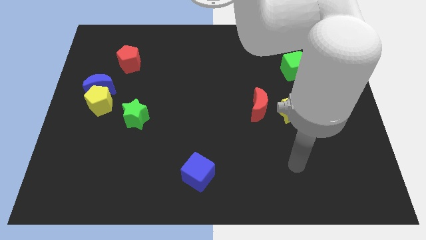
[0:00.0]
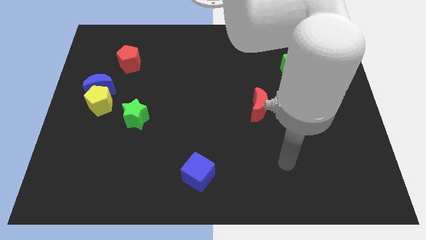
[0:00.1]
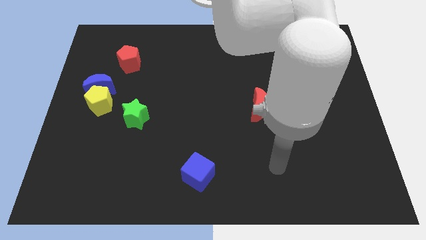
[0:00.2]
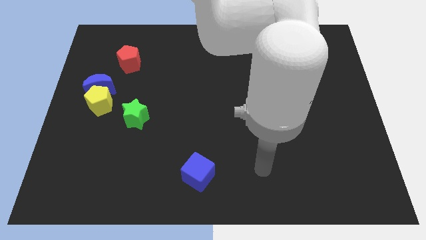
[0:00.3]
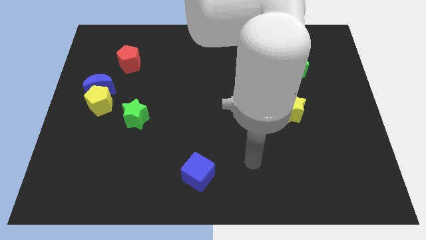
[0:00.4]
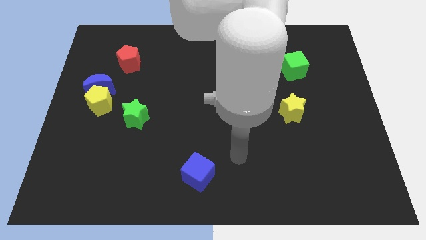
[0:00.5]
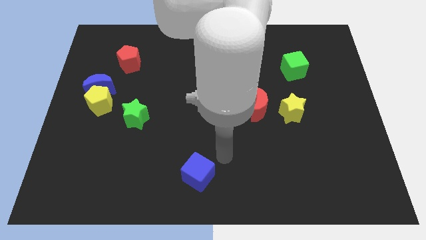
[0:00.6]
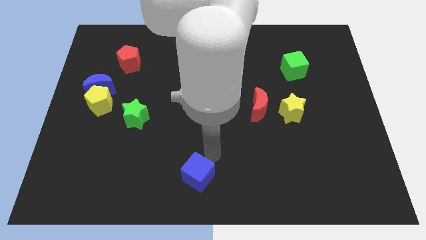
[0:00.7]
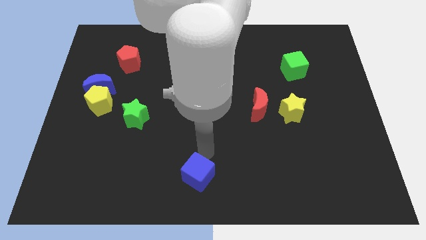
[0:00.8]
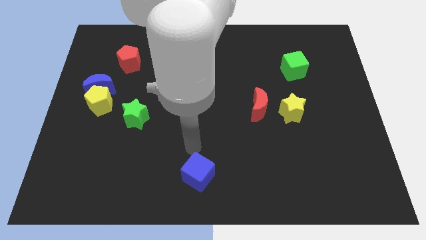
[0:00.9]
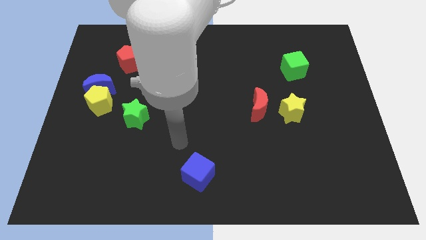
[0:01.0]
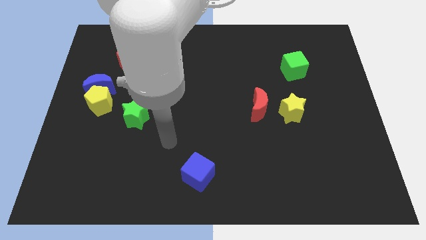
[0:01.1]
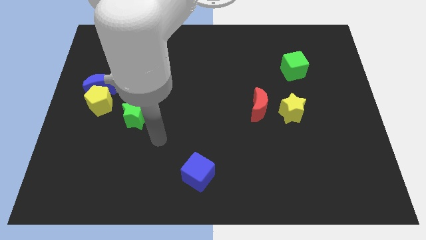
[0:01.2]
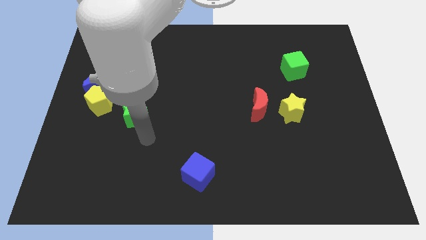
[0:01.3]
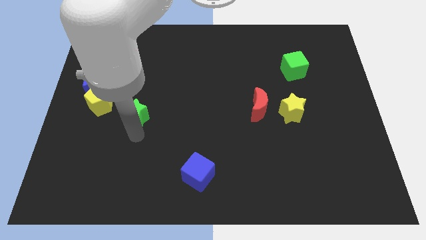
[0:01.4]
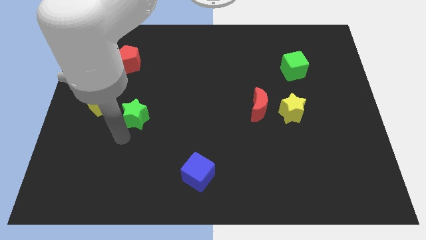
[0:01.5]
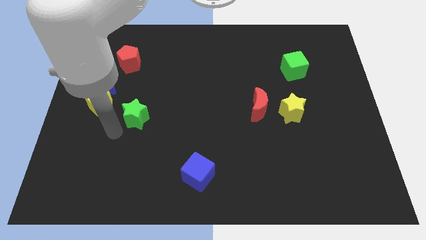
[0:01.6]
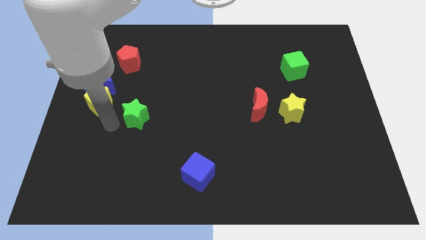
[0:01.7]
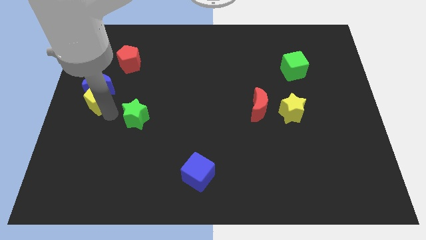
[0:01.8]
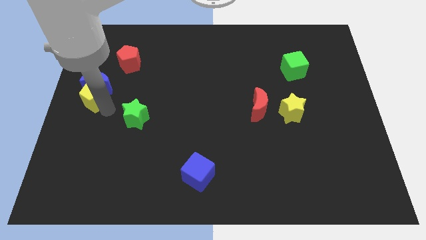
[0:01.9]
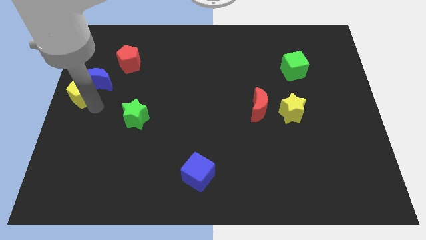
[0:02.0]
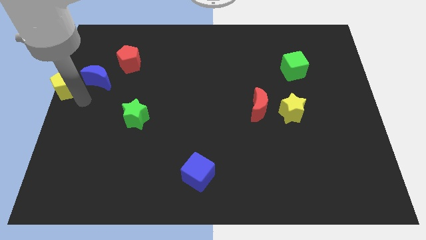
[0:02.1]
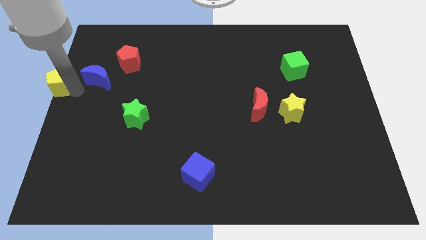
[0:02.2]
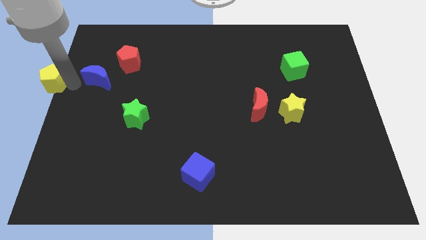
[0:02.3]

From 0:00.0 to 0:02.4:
move the blue moon away from the yellow pentagon

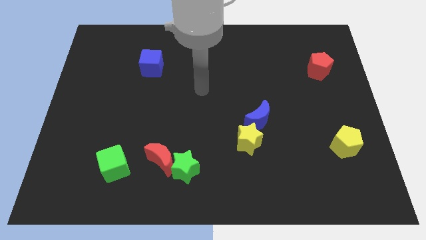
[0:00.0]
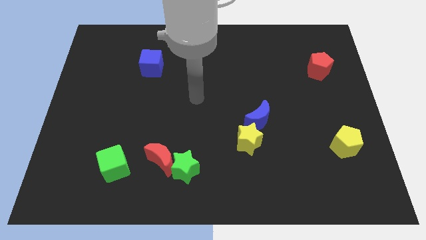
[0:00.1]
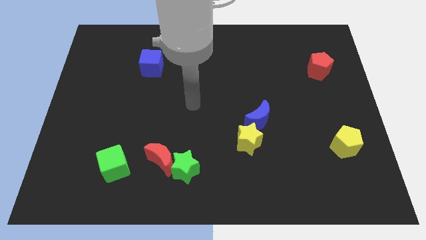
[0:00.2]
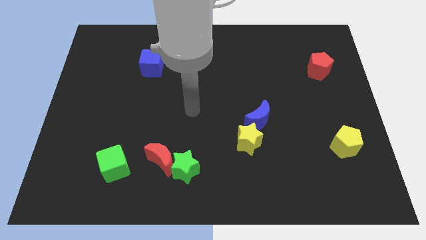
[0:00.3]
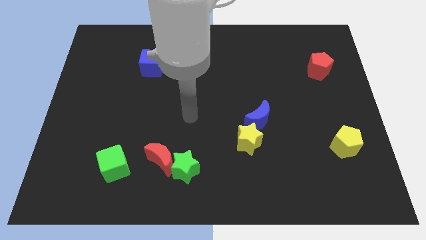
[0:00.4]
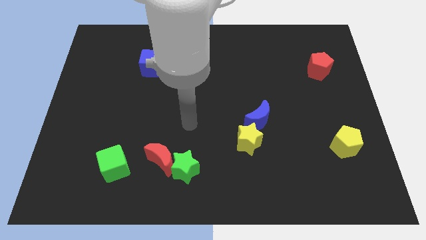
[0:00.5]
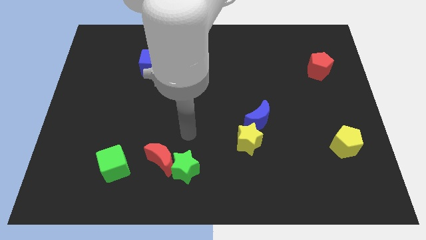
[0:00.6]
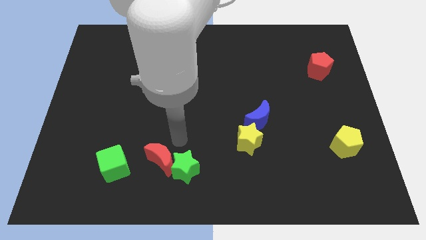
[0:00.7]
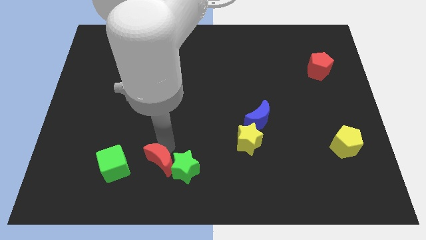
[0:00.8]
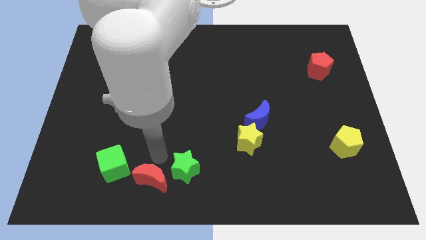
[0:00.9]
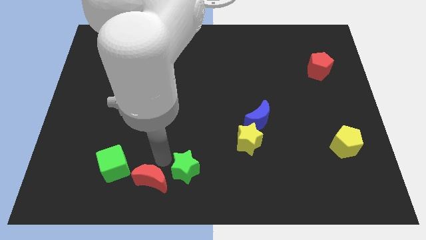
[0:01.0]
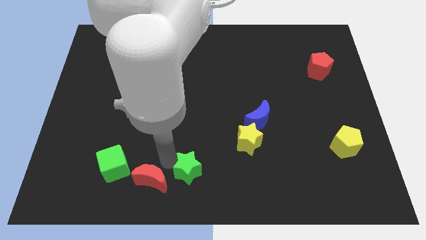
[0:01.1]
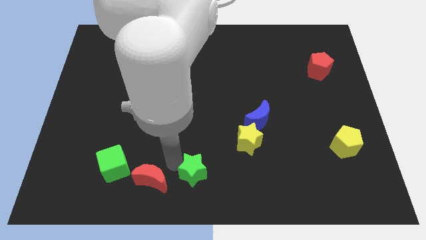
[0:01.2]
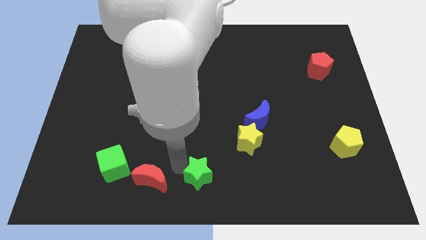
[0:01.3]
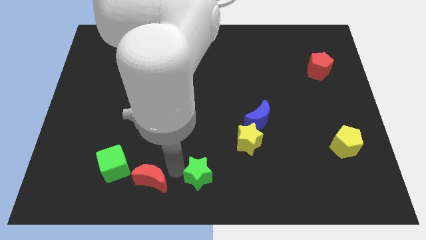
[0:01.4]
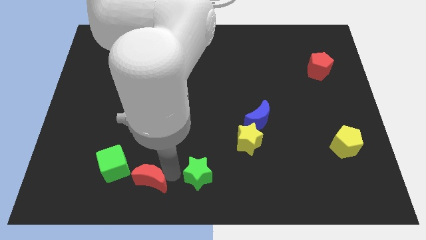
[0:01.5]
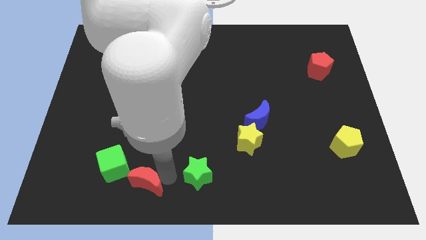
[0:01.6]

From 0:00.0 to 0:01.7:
move the green star away from the red moon

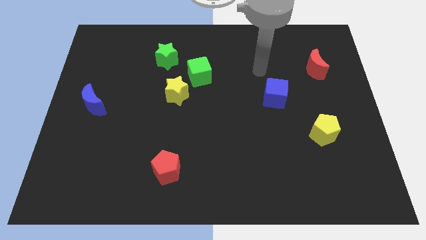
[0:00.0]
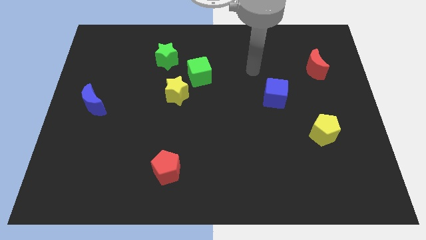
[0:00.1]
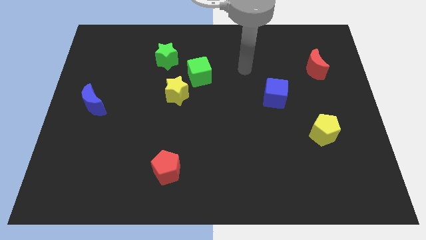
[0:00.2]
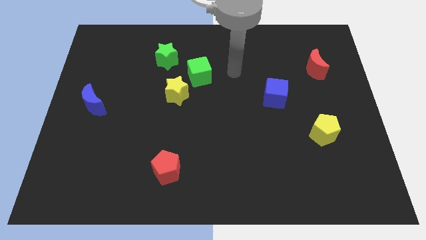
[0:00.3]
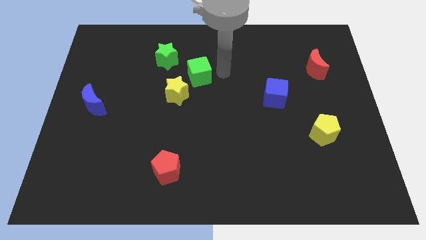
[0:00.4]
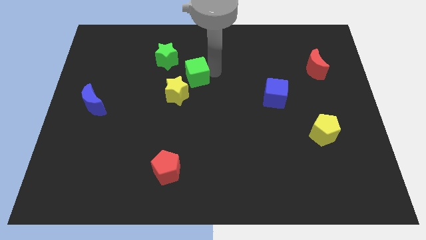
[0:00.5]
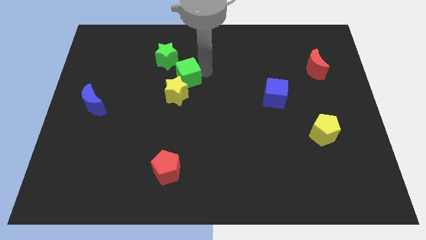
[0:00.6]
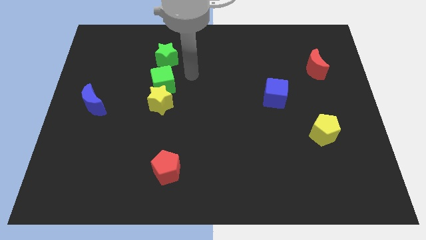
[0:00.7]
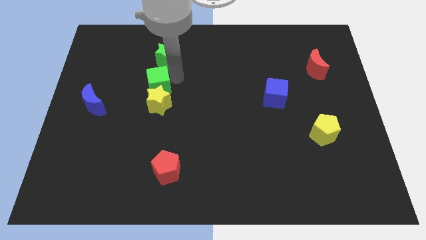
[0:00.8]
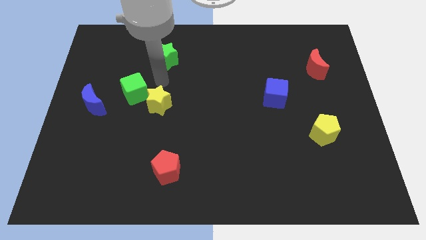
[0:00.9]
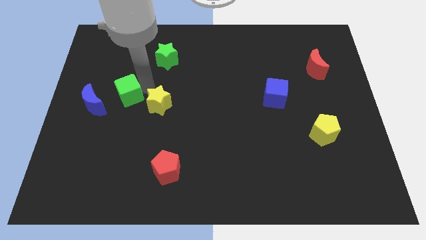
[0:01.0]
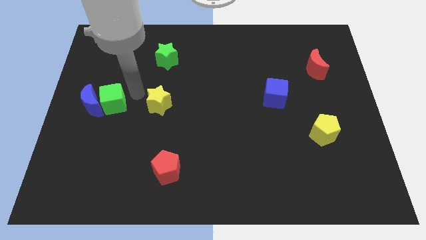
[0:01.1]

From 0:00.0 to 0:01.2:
move the yellow star away from the green cube

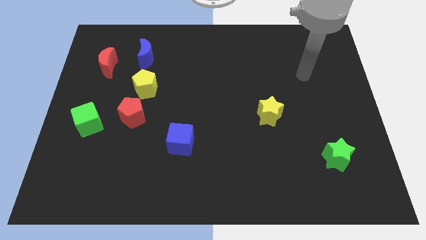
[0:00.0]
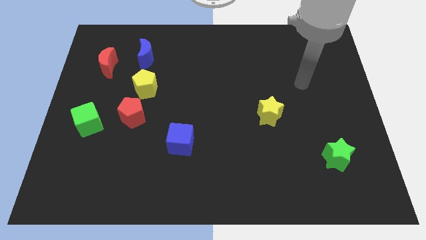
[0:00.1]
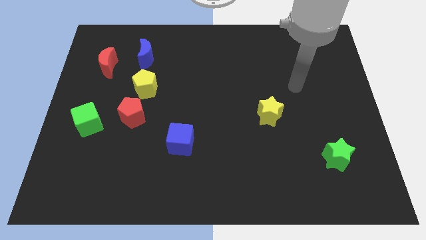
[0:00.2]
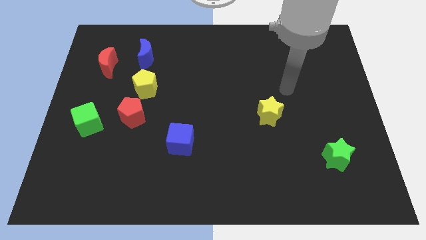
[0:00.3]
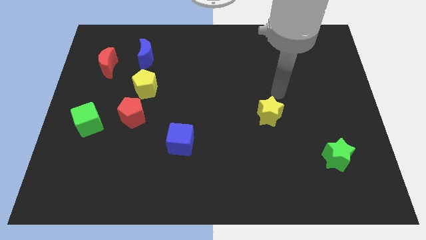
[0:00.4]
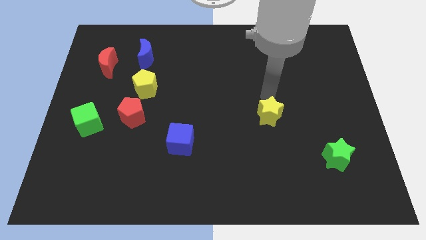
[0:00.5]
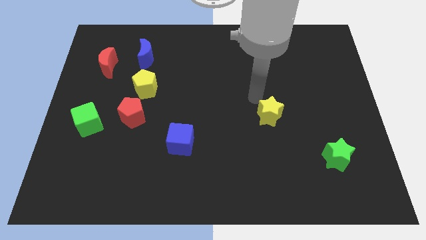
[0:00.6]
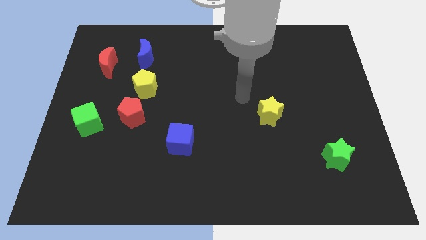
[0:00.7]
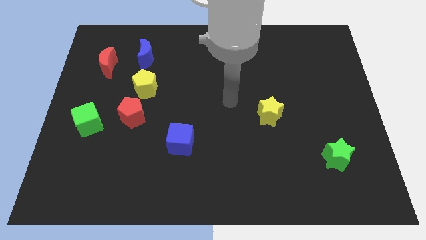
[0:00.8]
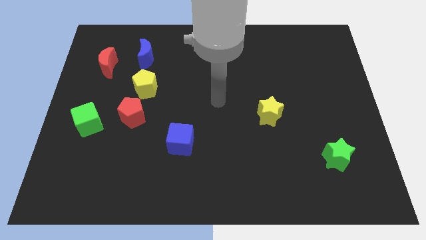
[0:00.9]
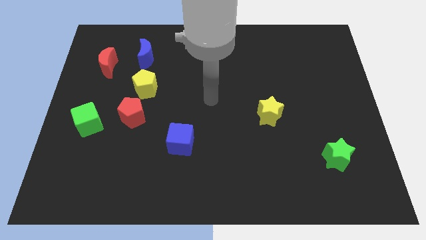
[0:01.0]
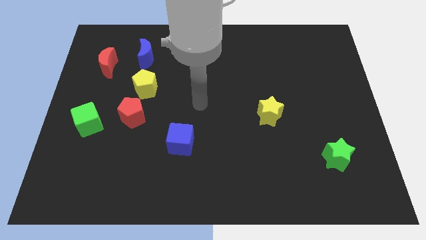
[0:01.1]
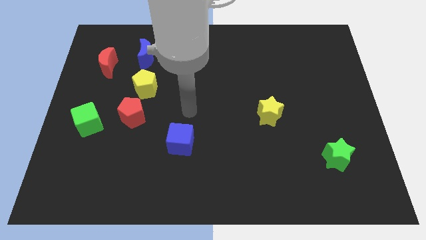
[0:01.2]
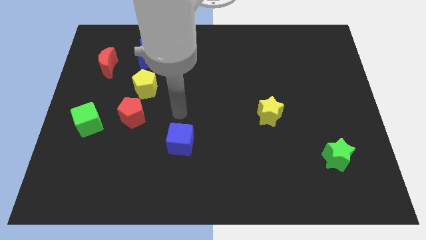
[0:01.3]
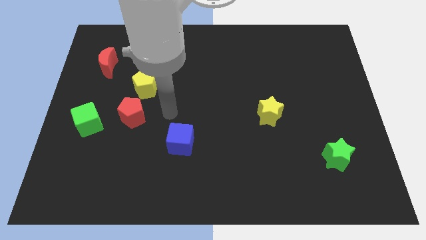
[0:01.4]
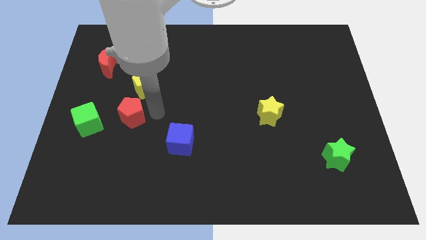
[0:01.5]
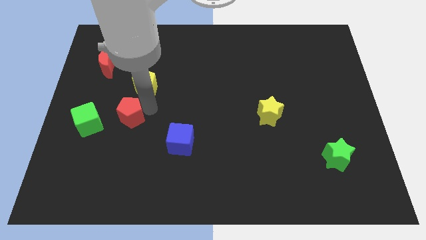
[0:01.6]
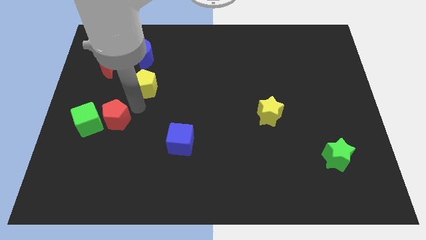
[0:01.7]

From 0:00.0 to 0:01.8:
move the yellow pentagon away from the red pentagon

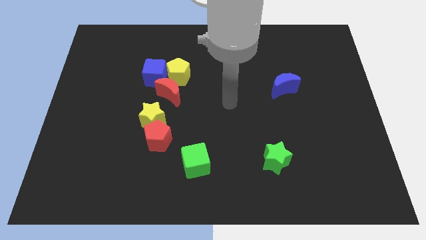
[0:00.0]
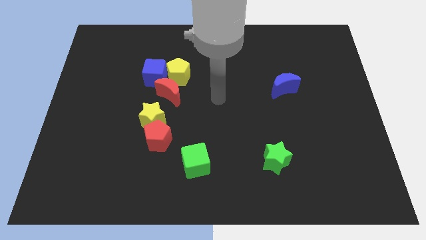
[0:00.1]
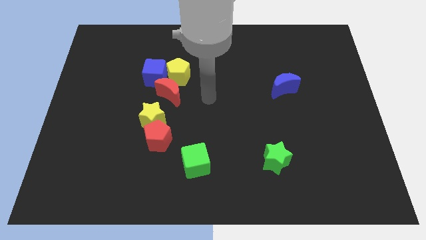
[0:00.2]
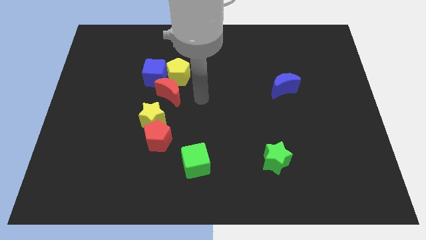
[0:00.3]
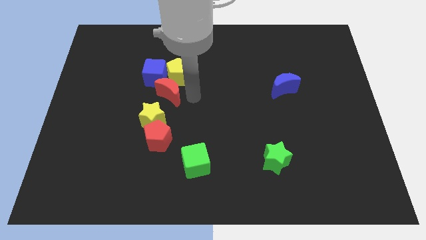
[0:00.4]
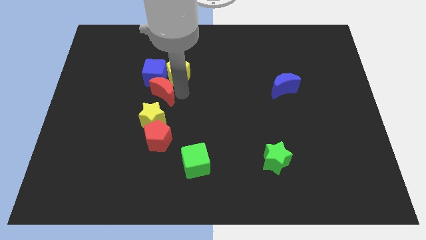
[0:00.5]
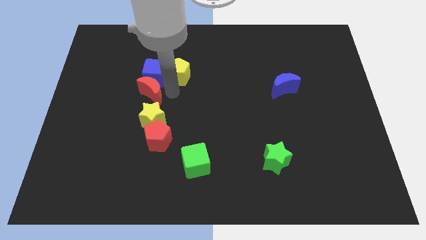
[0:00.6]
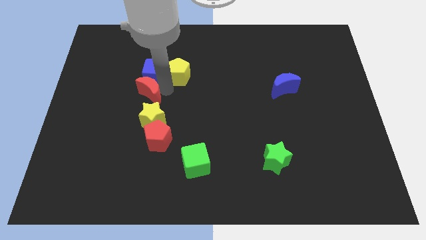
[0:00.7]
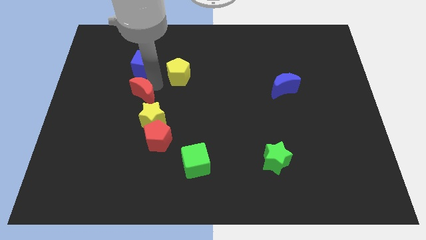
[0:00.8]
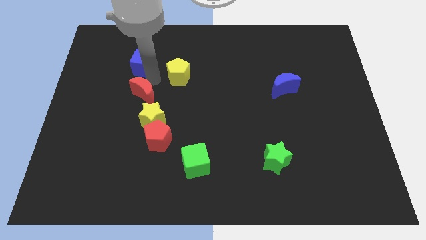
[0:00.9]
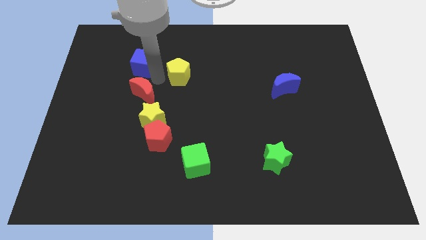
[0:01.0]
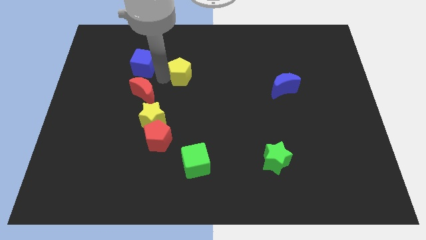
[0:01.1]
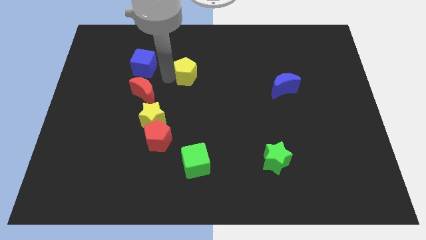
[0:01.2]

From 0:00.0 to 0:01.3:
move the yellow pentagon away from the blue cube and red moon

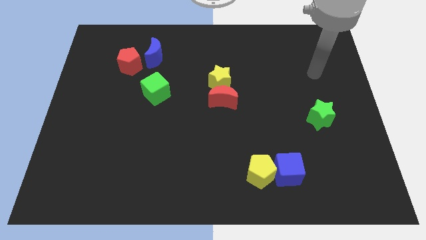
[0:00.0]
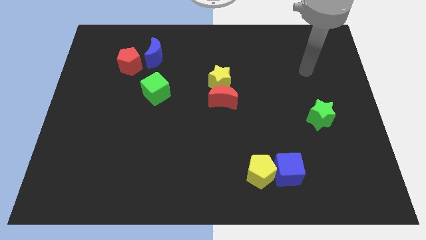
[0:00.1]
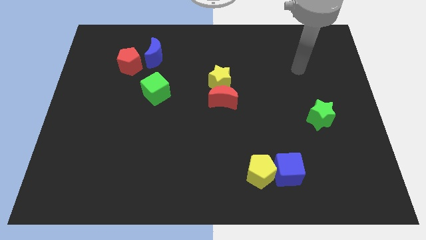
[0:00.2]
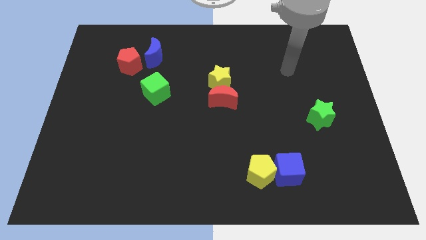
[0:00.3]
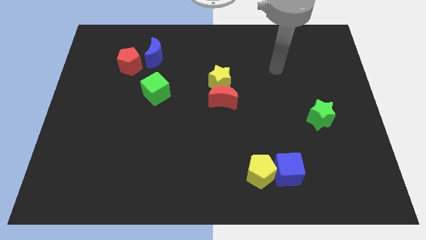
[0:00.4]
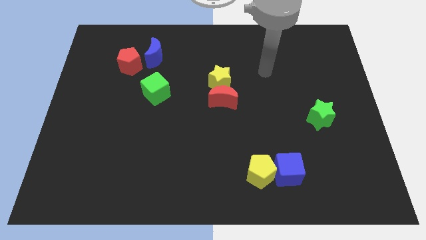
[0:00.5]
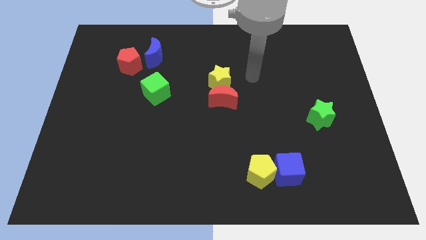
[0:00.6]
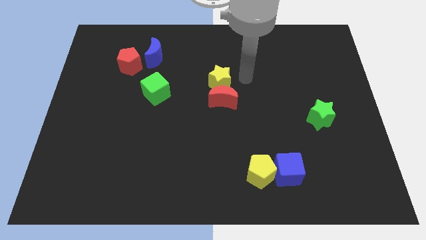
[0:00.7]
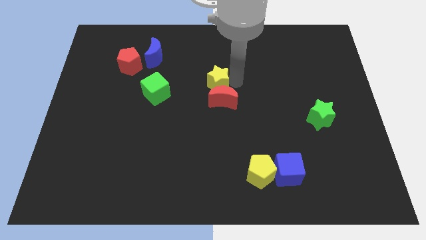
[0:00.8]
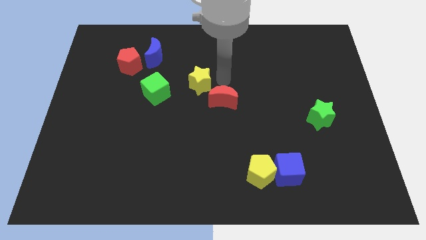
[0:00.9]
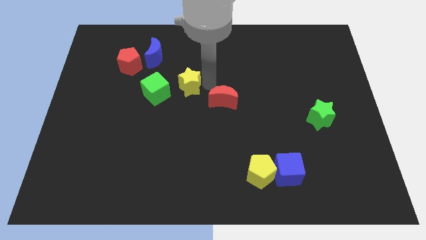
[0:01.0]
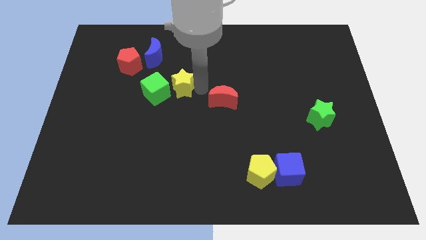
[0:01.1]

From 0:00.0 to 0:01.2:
separate the red moon from the yellow star
